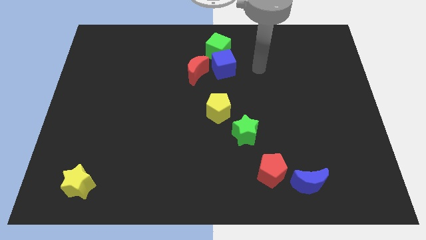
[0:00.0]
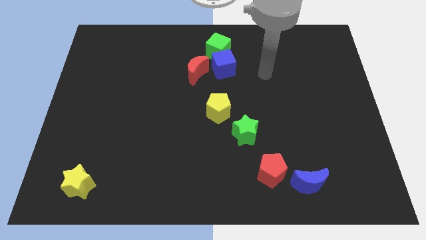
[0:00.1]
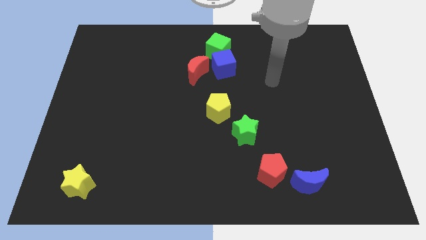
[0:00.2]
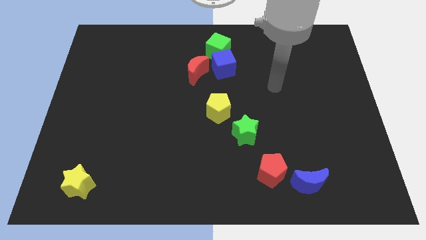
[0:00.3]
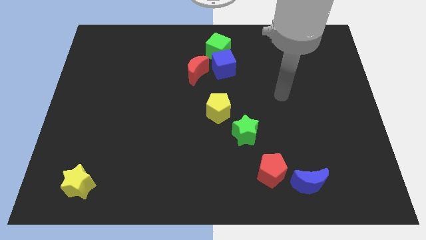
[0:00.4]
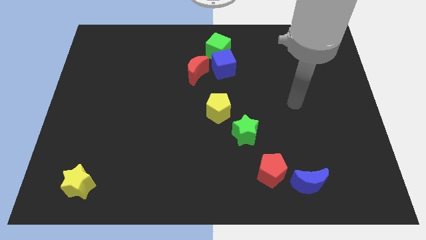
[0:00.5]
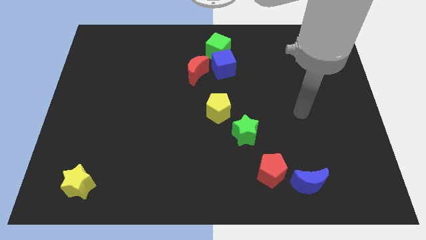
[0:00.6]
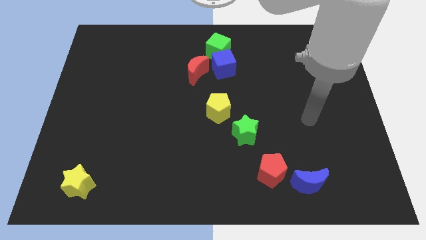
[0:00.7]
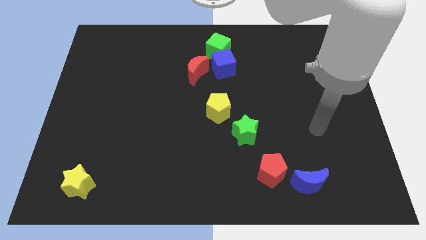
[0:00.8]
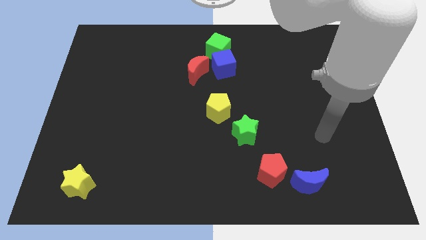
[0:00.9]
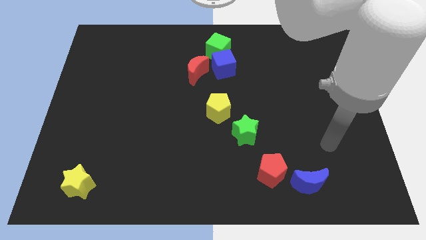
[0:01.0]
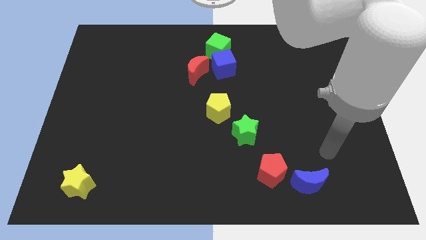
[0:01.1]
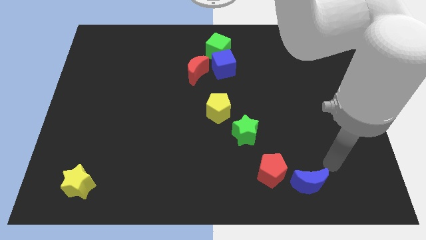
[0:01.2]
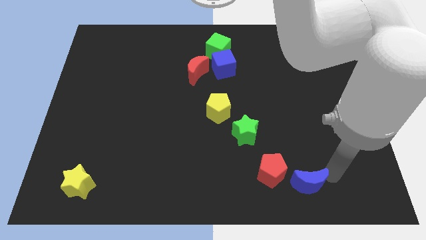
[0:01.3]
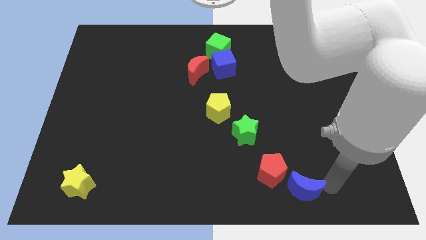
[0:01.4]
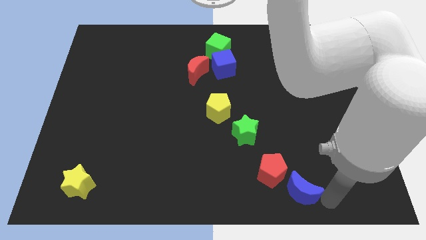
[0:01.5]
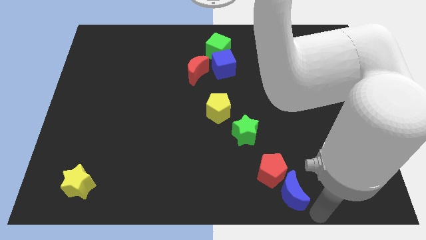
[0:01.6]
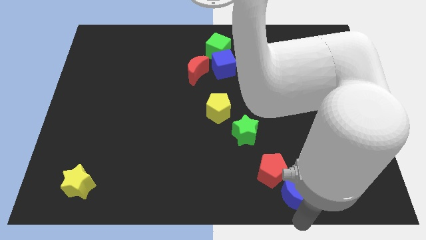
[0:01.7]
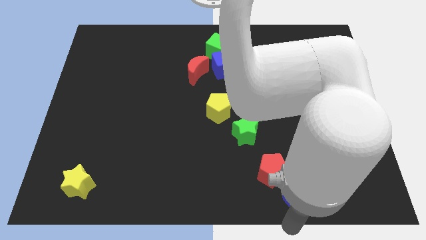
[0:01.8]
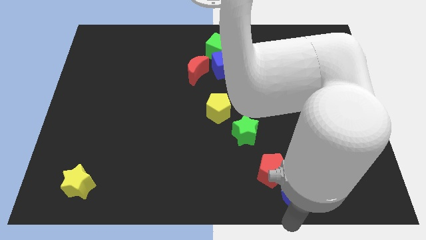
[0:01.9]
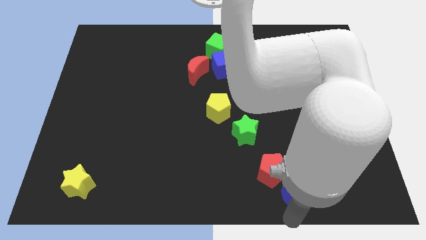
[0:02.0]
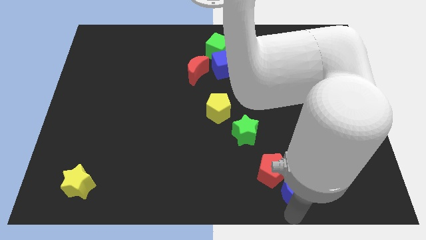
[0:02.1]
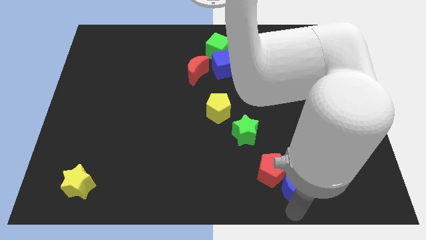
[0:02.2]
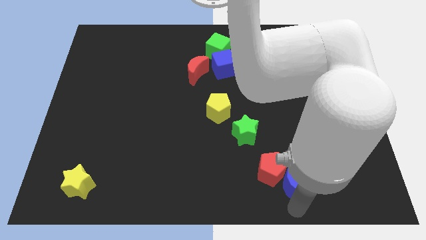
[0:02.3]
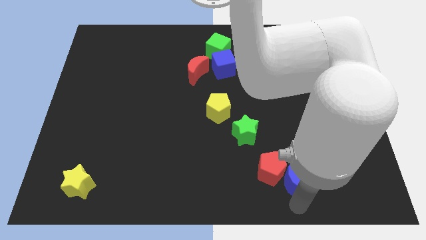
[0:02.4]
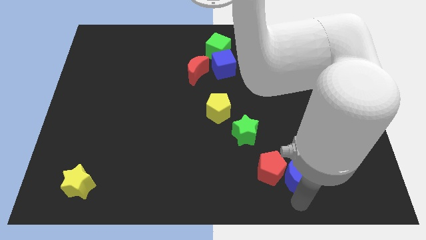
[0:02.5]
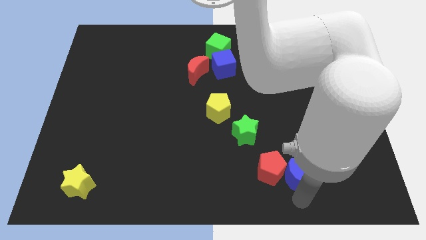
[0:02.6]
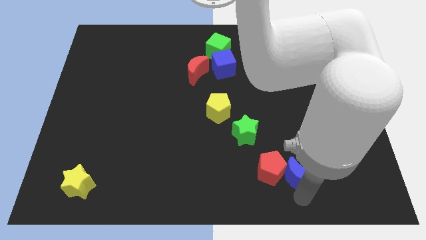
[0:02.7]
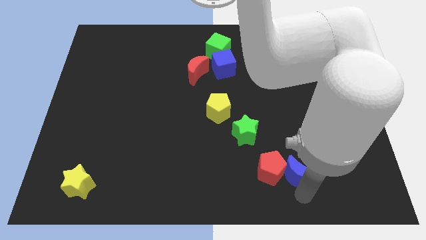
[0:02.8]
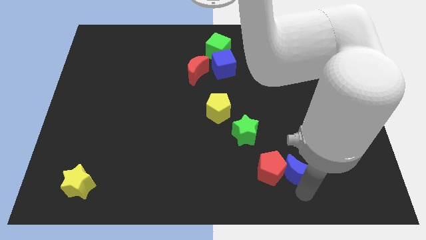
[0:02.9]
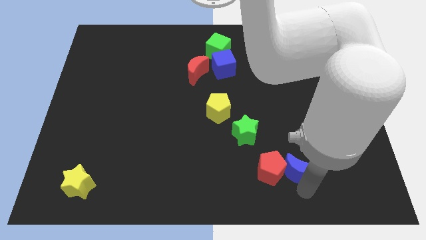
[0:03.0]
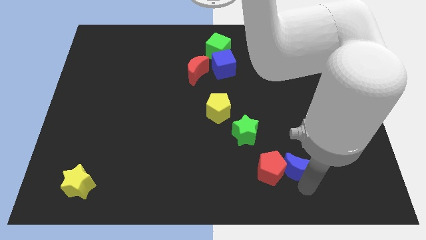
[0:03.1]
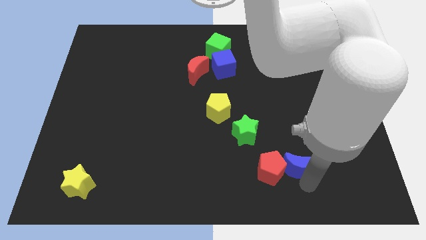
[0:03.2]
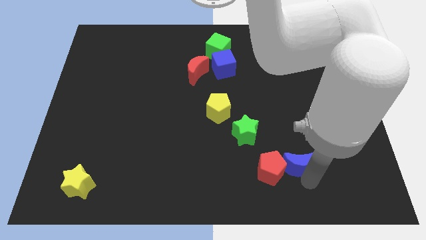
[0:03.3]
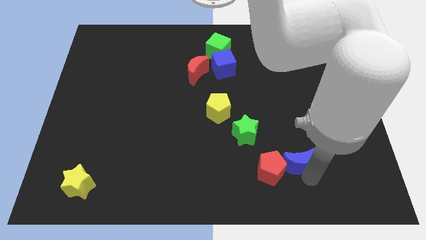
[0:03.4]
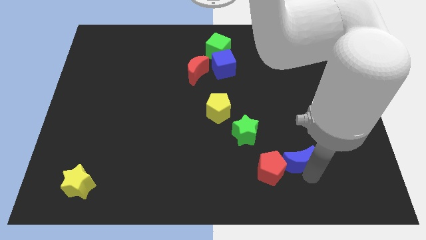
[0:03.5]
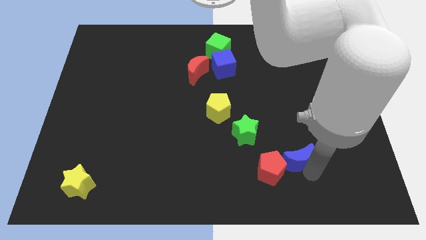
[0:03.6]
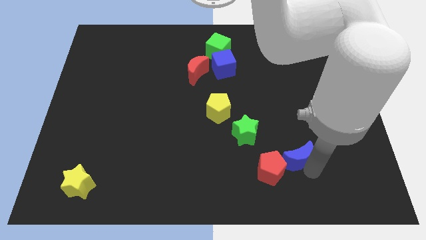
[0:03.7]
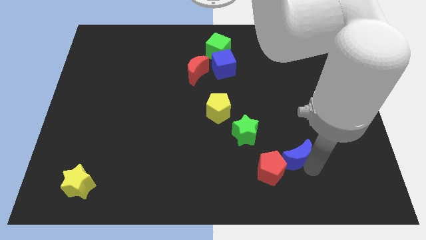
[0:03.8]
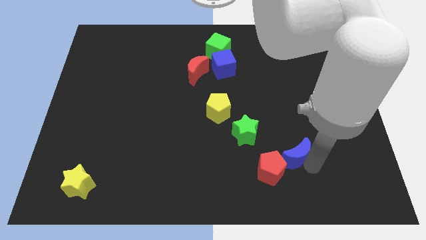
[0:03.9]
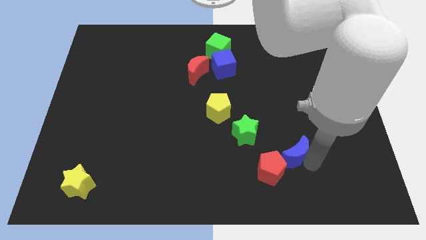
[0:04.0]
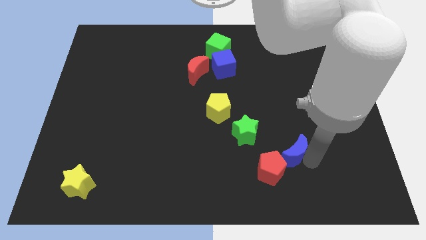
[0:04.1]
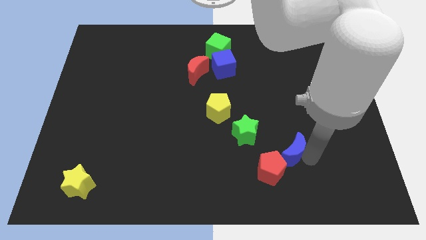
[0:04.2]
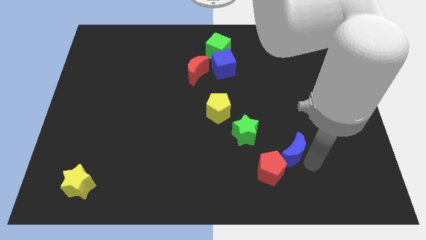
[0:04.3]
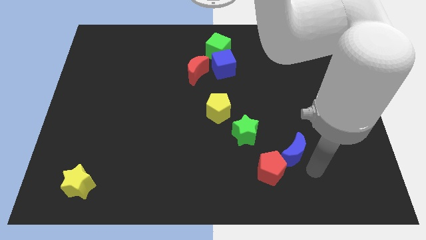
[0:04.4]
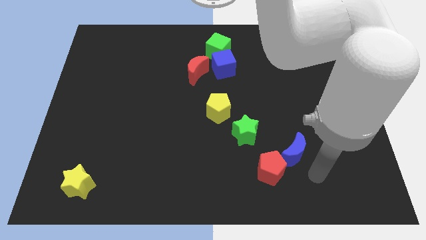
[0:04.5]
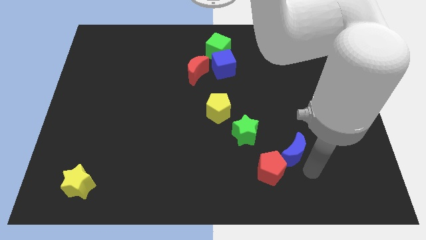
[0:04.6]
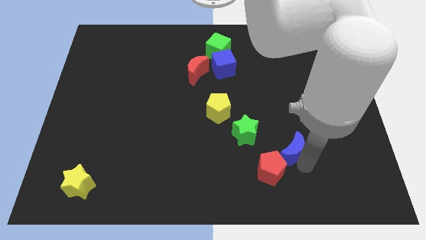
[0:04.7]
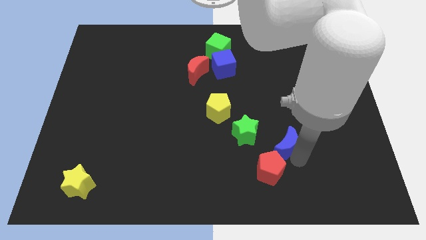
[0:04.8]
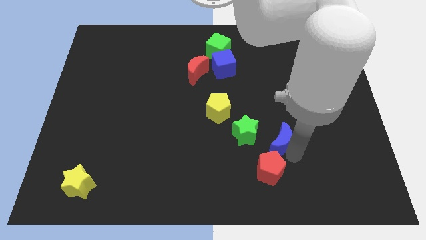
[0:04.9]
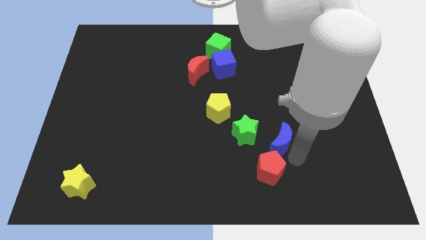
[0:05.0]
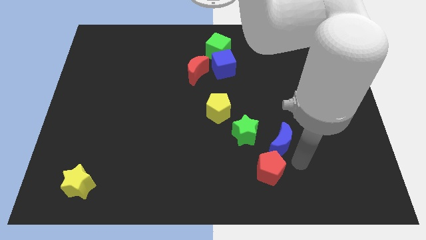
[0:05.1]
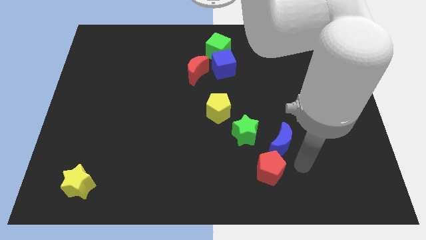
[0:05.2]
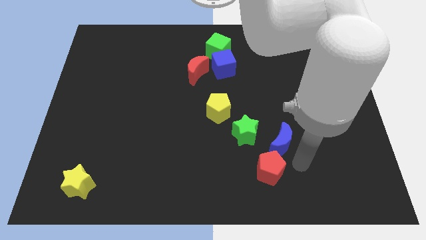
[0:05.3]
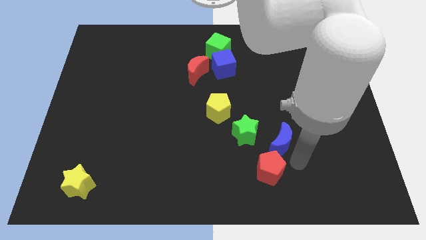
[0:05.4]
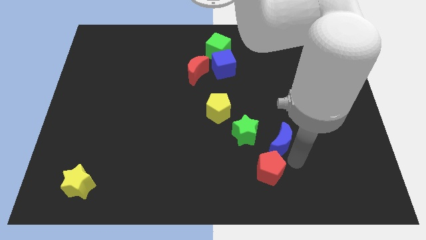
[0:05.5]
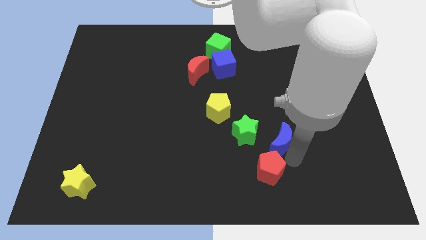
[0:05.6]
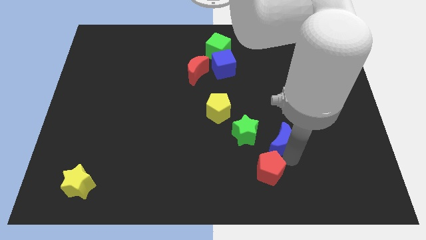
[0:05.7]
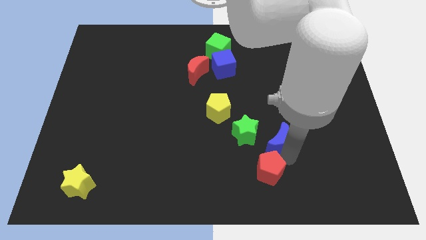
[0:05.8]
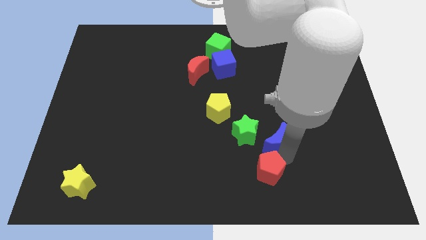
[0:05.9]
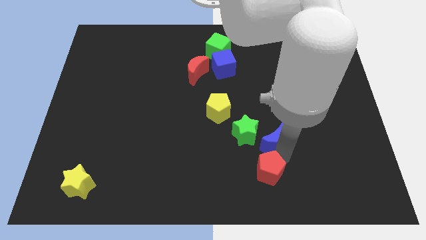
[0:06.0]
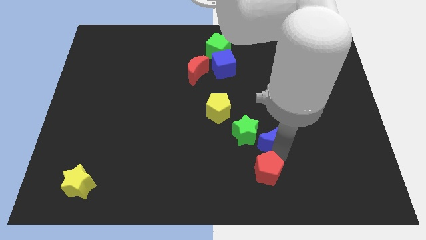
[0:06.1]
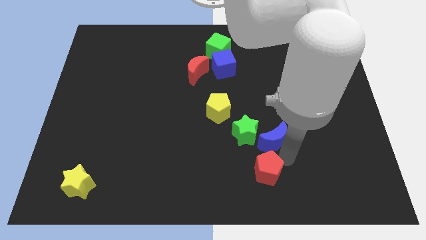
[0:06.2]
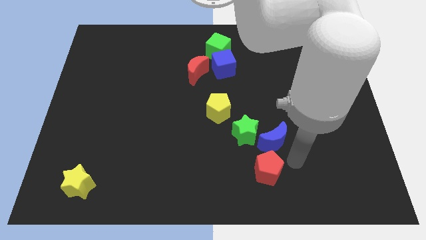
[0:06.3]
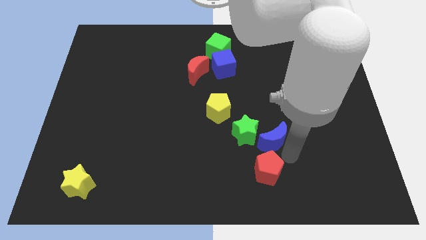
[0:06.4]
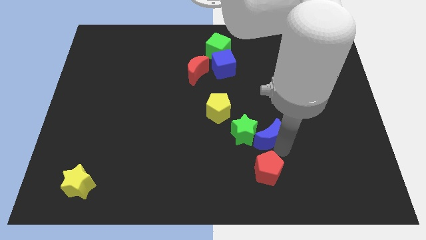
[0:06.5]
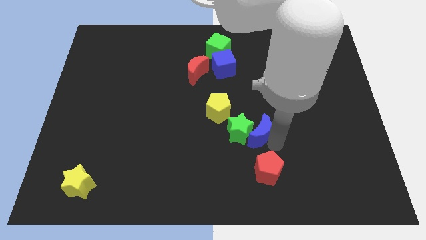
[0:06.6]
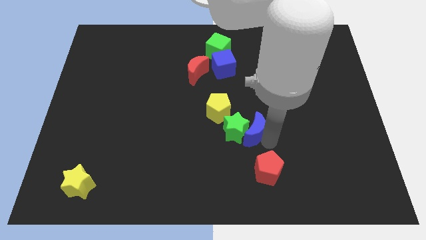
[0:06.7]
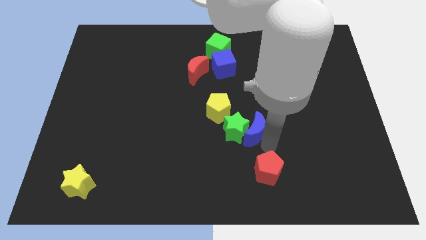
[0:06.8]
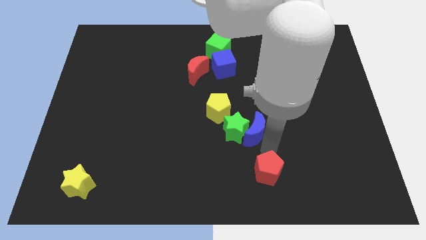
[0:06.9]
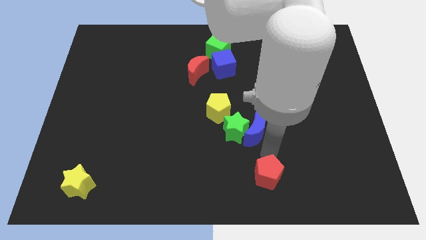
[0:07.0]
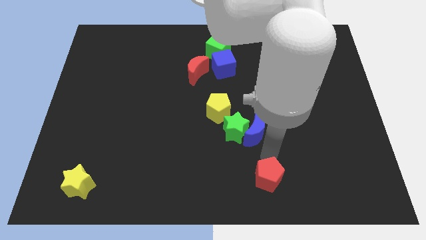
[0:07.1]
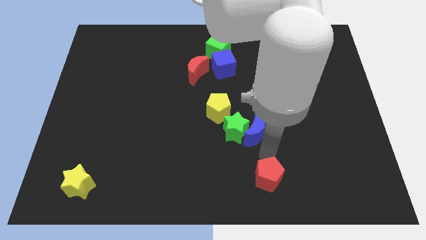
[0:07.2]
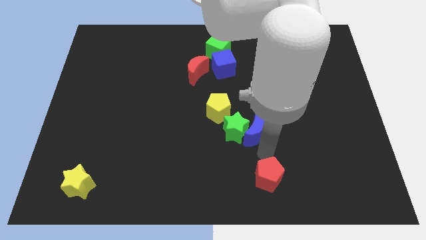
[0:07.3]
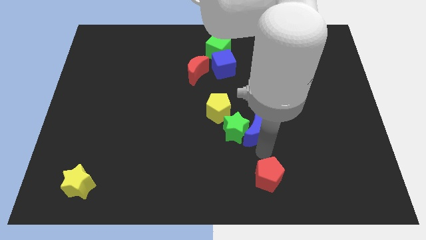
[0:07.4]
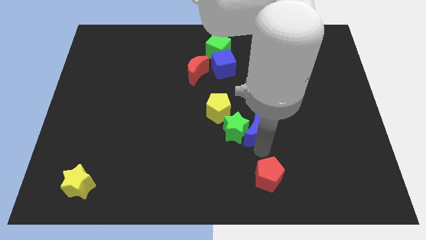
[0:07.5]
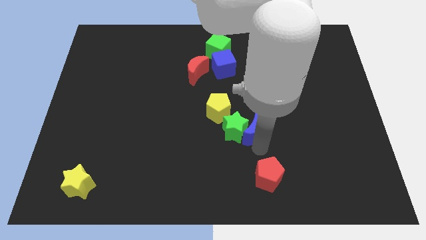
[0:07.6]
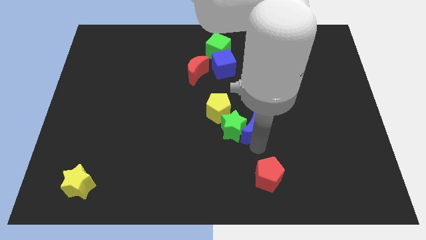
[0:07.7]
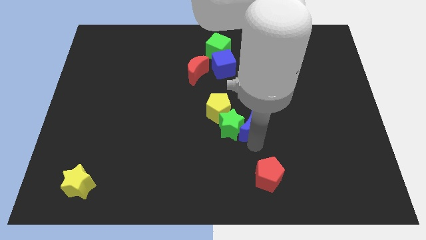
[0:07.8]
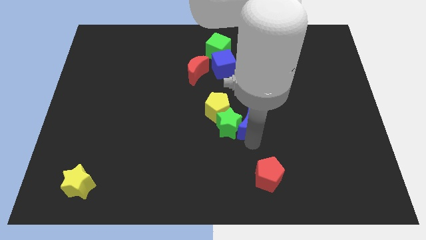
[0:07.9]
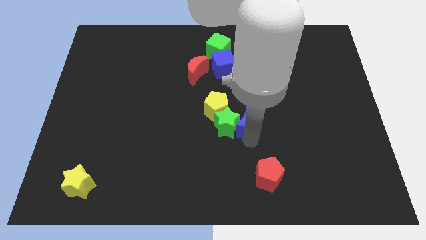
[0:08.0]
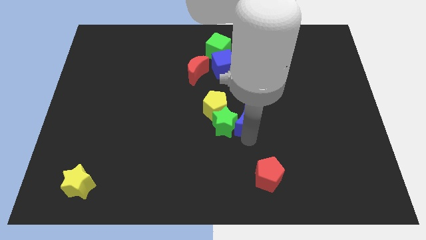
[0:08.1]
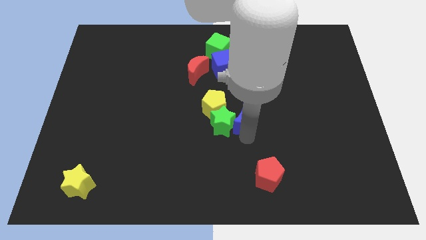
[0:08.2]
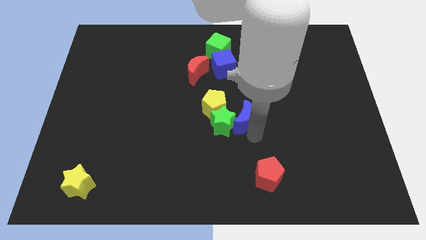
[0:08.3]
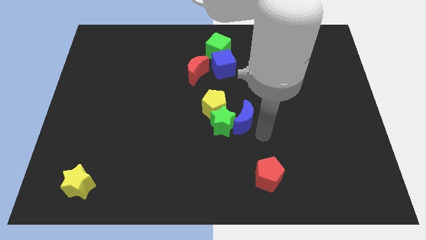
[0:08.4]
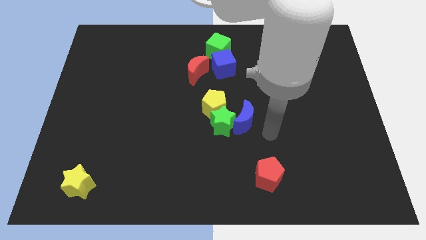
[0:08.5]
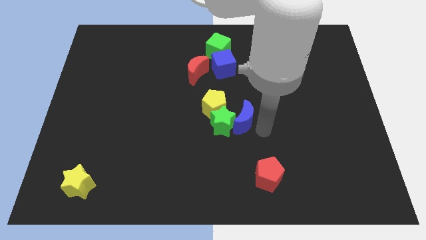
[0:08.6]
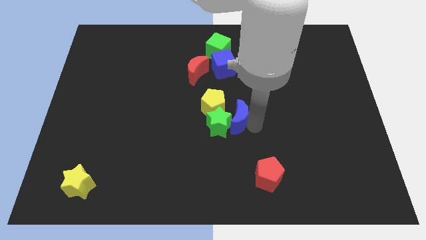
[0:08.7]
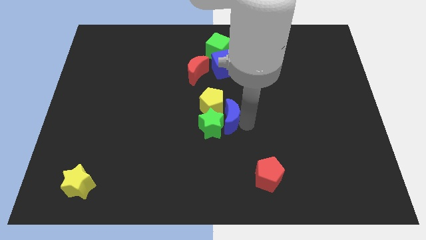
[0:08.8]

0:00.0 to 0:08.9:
slide the blue moon next to the yellow pentagon
